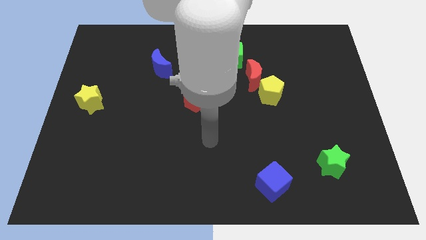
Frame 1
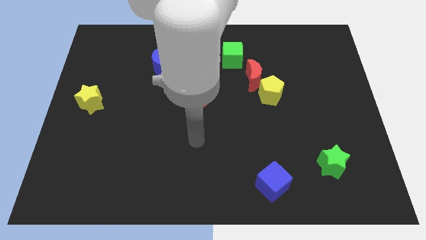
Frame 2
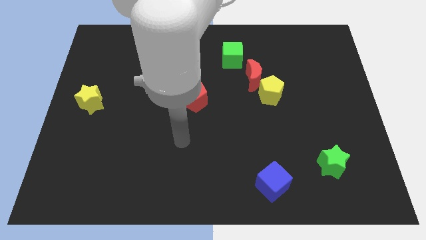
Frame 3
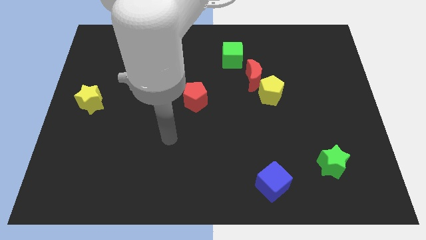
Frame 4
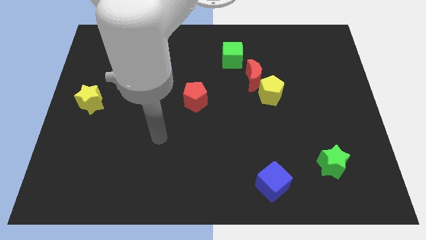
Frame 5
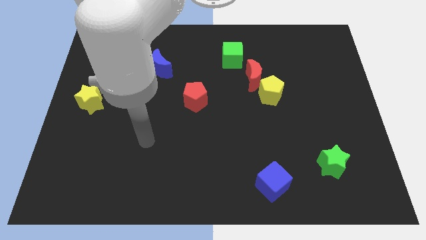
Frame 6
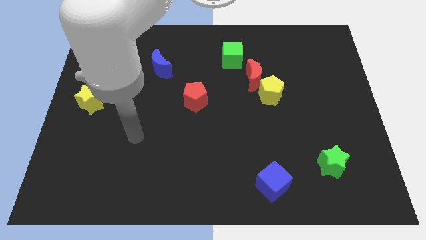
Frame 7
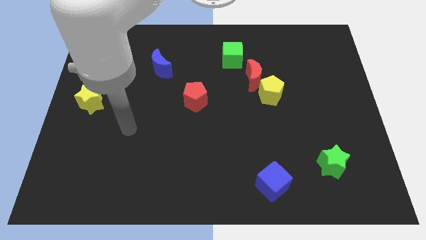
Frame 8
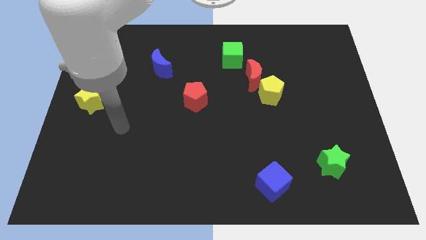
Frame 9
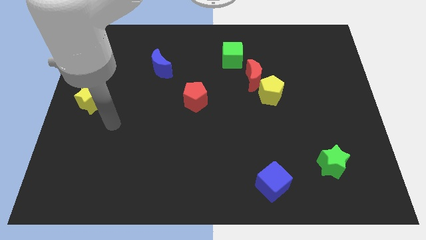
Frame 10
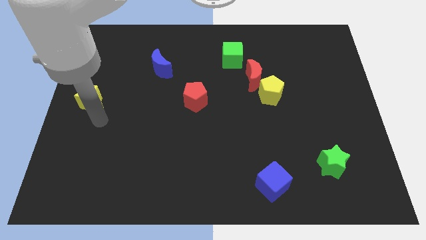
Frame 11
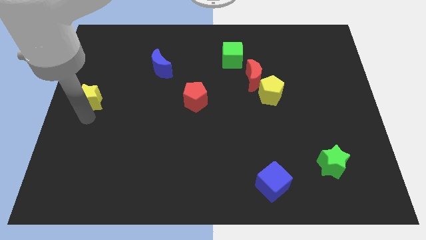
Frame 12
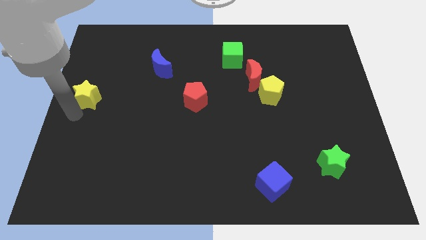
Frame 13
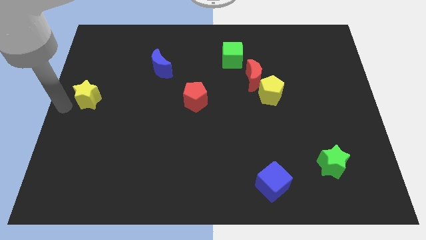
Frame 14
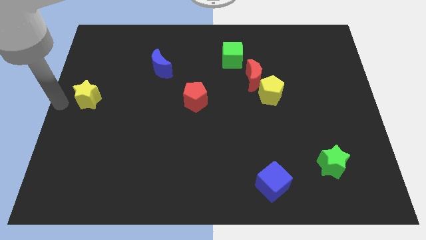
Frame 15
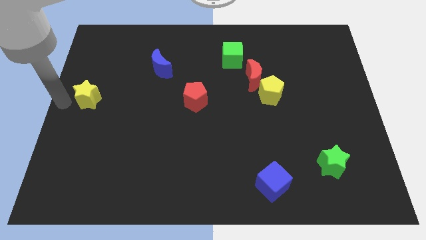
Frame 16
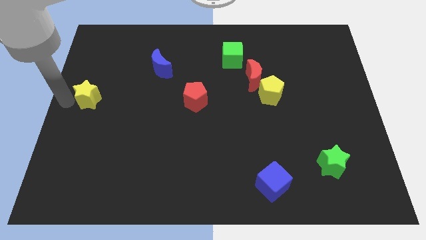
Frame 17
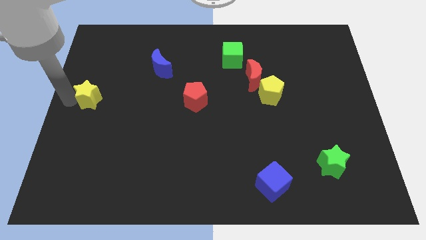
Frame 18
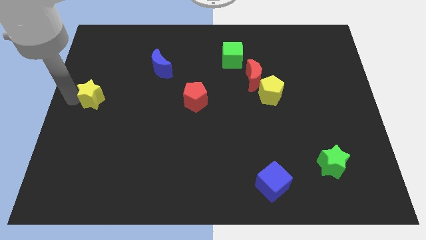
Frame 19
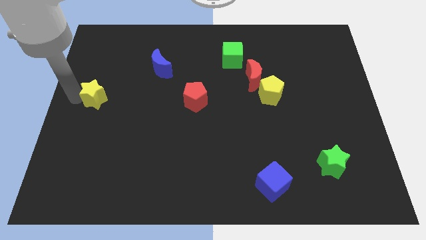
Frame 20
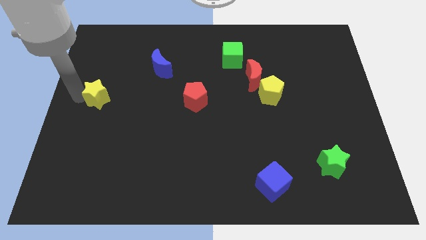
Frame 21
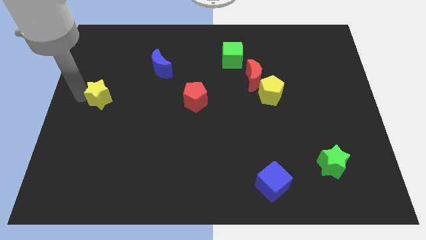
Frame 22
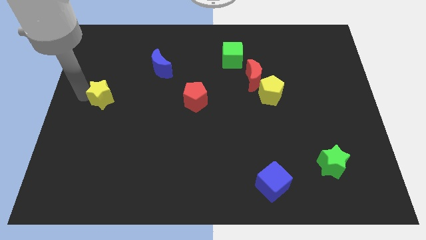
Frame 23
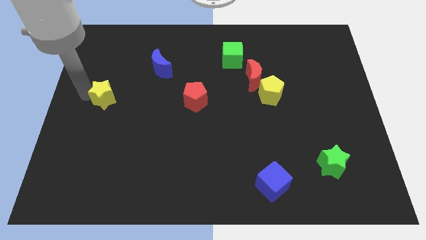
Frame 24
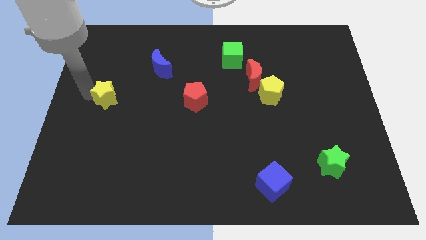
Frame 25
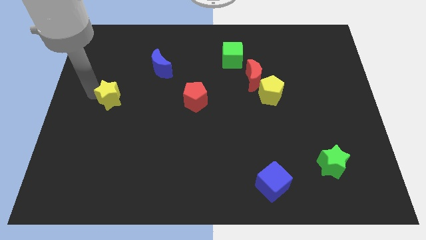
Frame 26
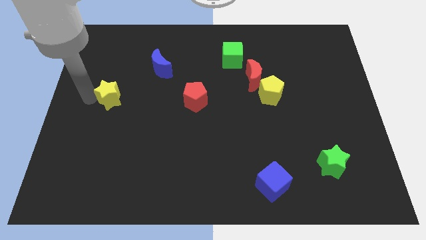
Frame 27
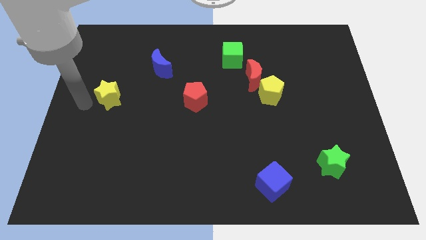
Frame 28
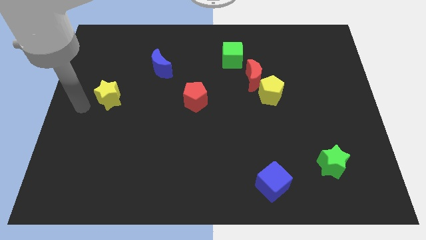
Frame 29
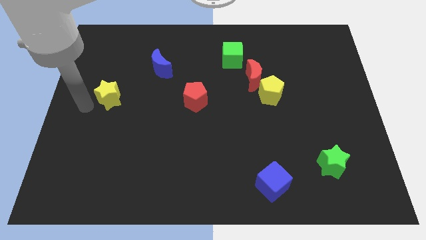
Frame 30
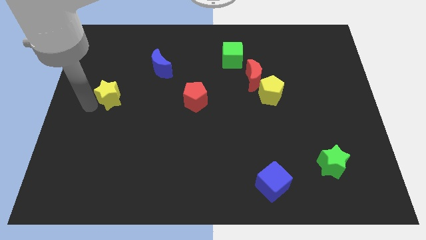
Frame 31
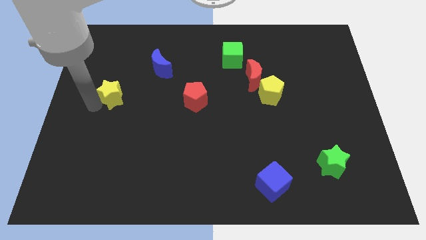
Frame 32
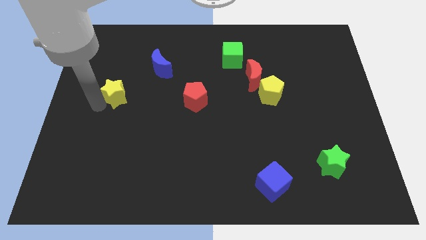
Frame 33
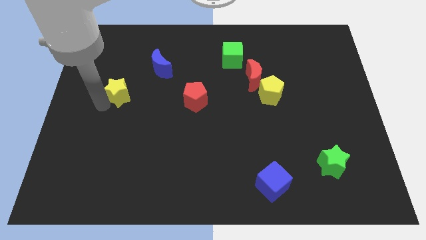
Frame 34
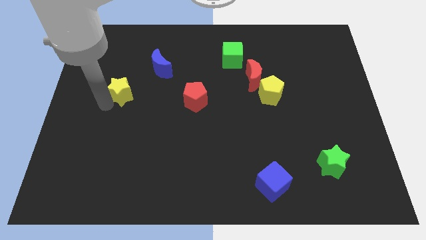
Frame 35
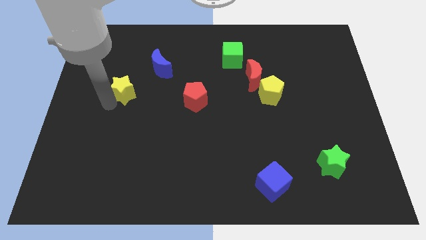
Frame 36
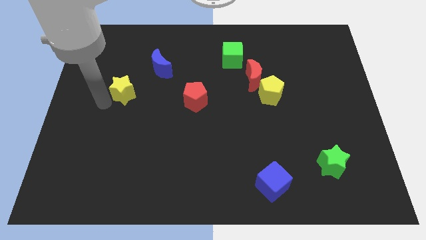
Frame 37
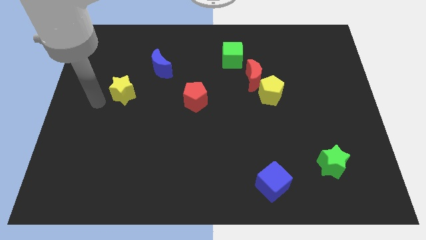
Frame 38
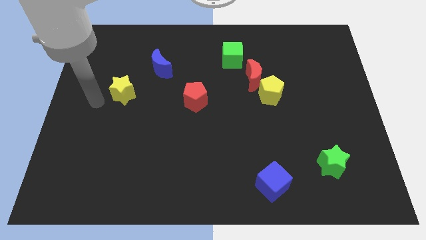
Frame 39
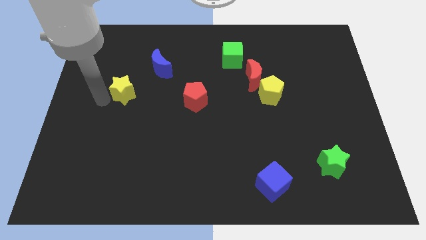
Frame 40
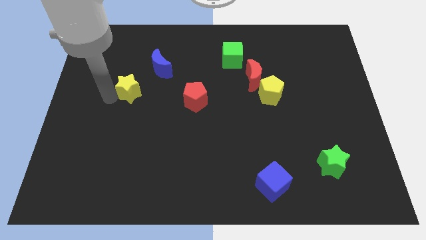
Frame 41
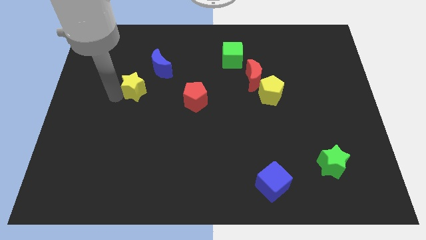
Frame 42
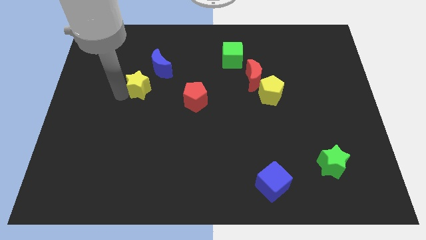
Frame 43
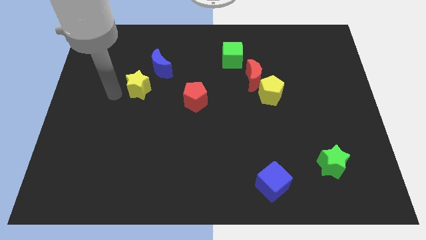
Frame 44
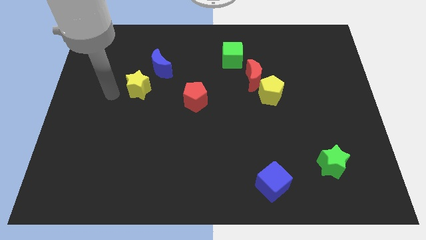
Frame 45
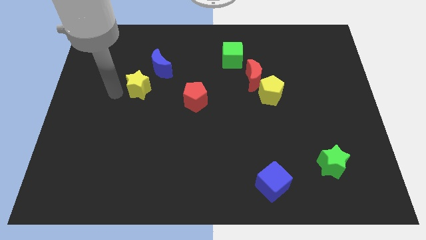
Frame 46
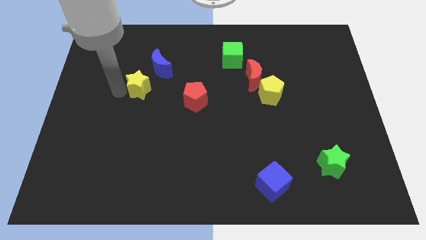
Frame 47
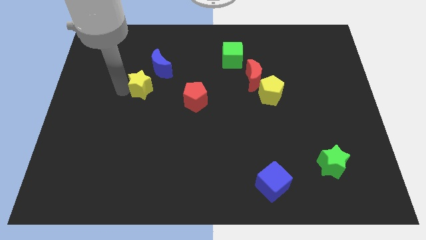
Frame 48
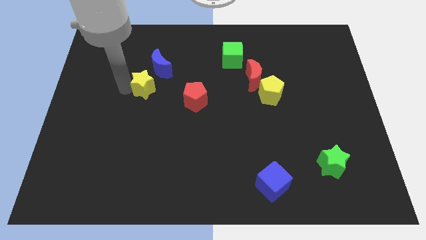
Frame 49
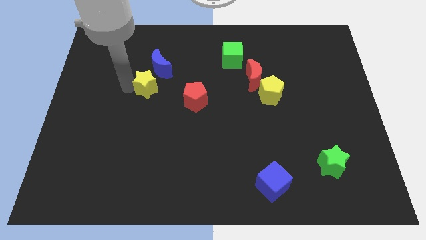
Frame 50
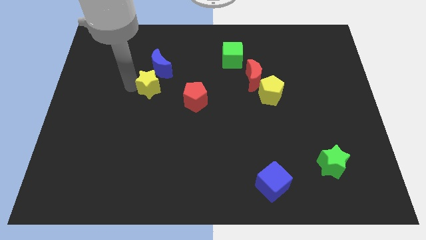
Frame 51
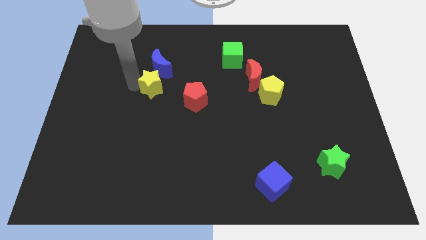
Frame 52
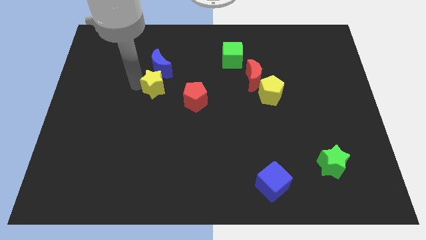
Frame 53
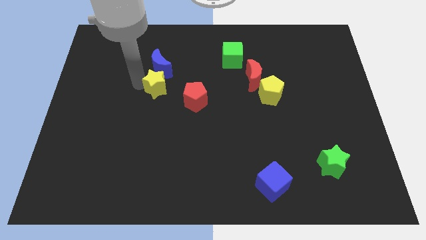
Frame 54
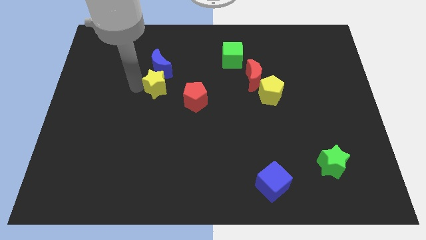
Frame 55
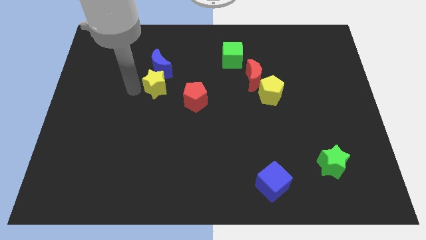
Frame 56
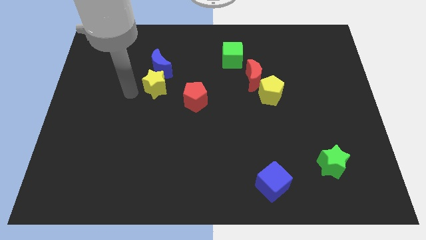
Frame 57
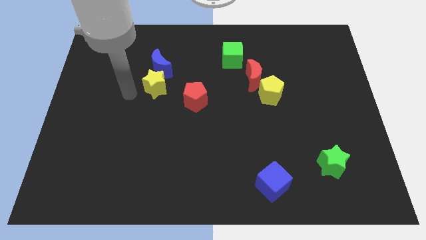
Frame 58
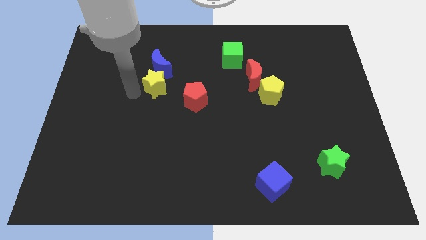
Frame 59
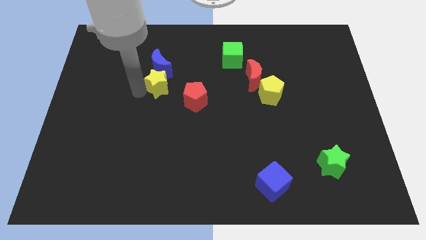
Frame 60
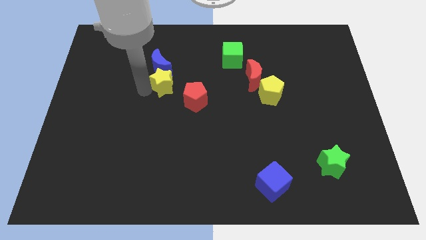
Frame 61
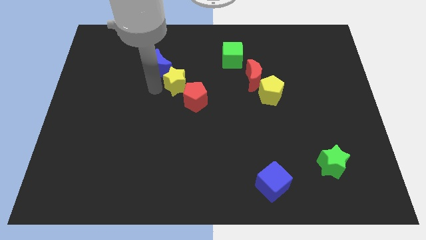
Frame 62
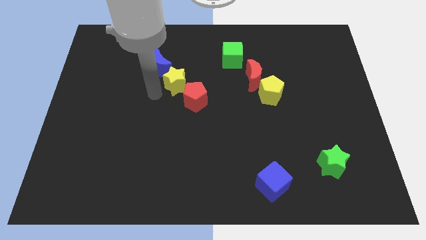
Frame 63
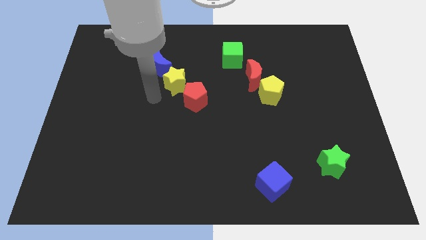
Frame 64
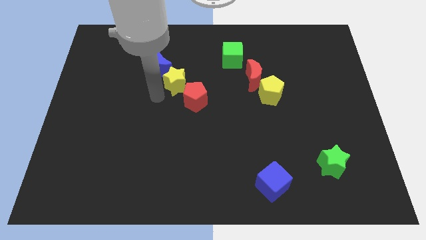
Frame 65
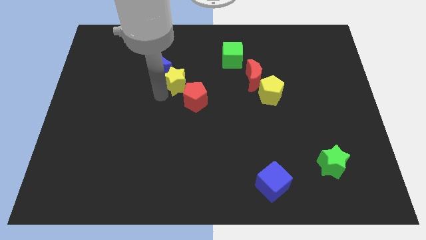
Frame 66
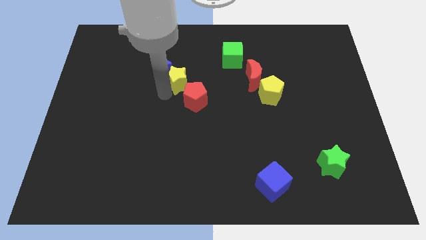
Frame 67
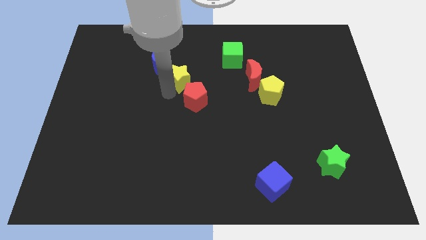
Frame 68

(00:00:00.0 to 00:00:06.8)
put the yellow star just right of the blue moon
